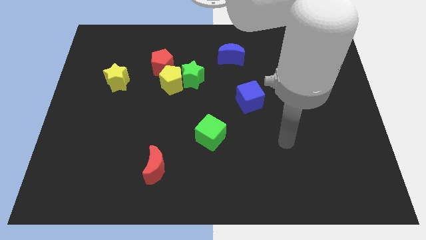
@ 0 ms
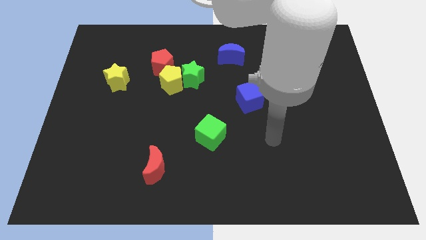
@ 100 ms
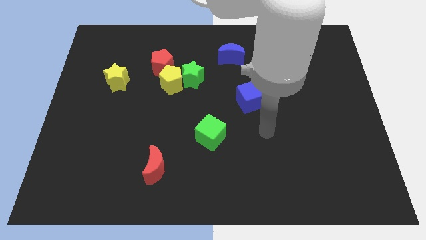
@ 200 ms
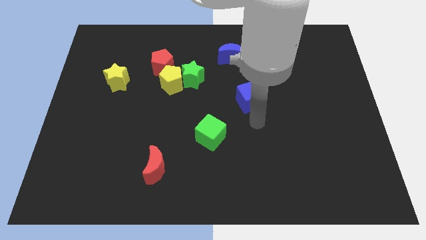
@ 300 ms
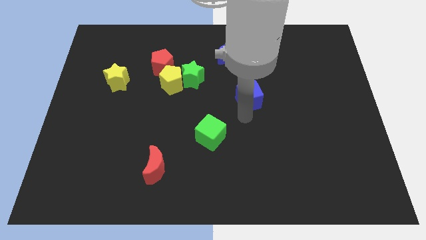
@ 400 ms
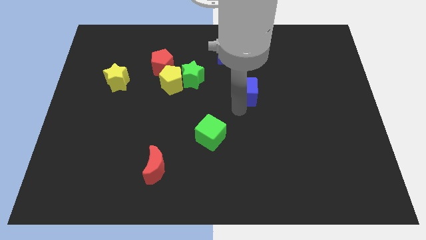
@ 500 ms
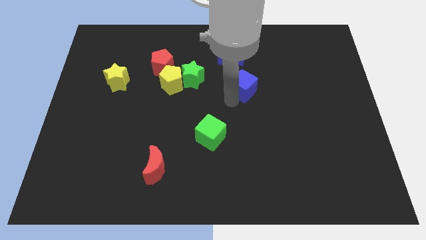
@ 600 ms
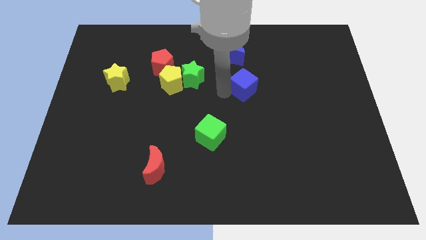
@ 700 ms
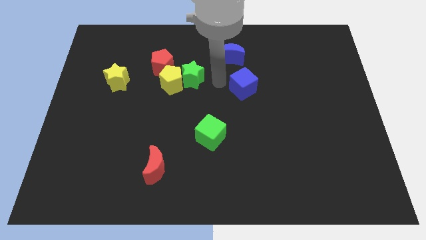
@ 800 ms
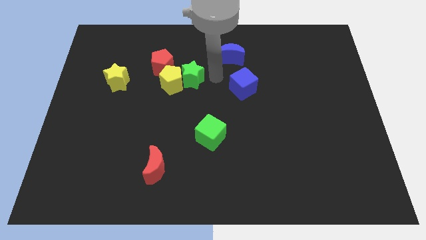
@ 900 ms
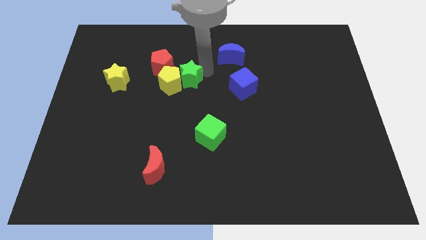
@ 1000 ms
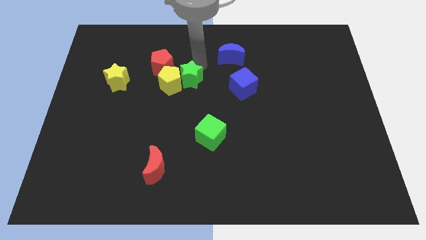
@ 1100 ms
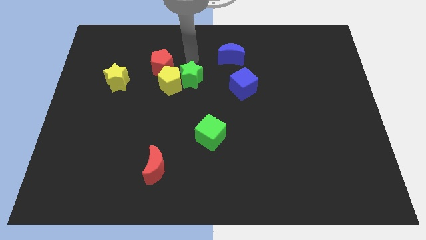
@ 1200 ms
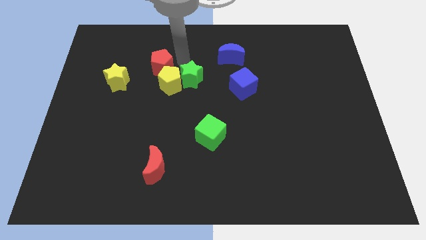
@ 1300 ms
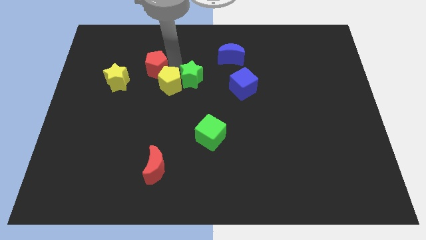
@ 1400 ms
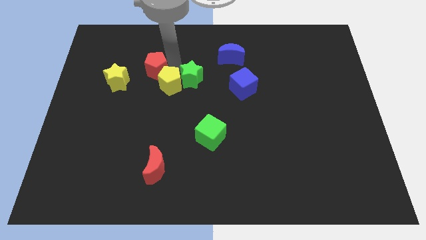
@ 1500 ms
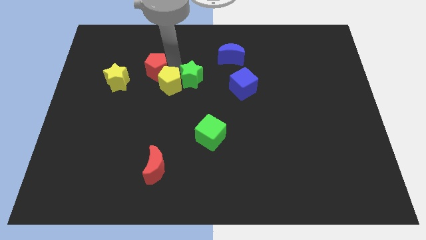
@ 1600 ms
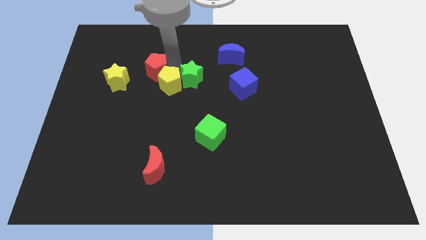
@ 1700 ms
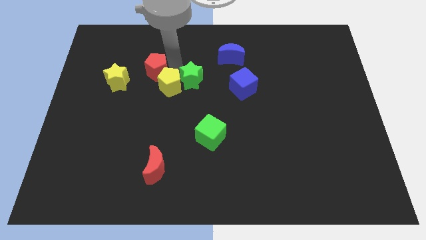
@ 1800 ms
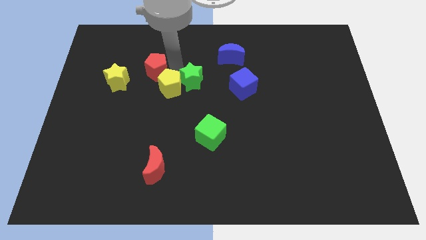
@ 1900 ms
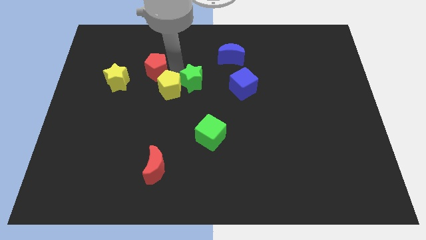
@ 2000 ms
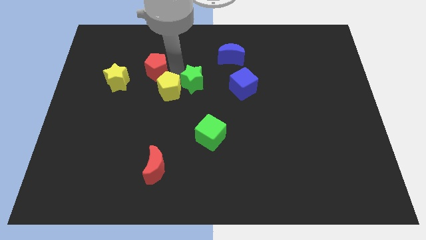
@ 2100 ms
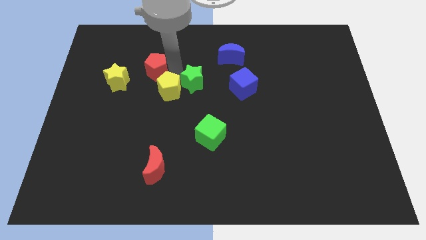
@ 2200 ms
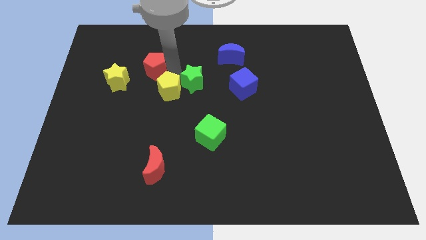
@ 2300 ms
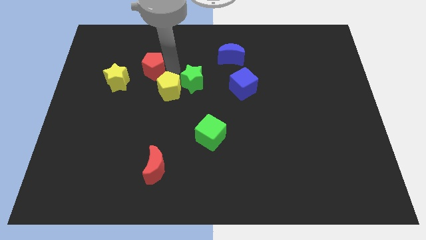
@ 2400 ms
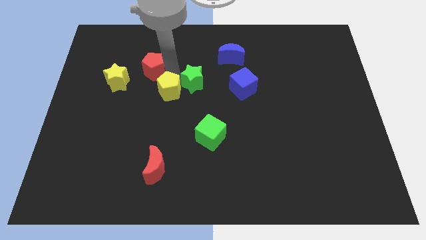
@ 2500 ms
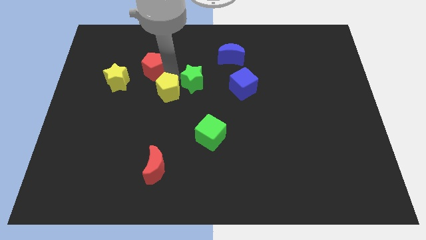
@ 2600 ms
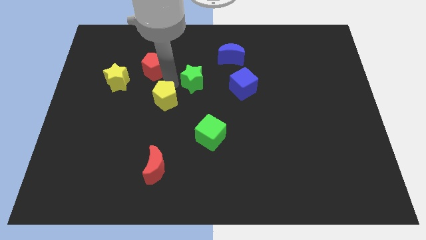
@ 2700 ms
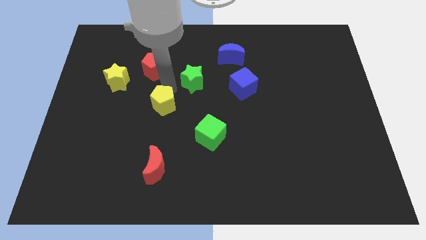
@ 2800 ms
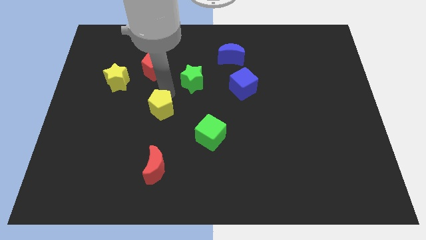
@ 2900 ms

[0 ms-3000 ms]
move the yellow pentagon downwards a little bit

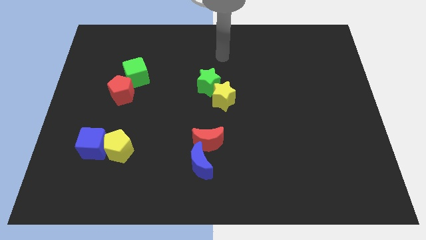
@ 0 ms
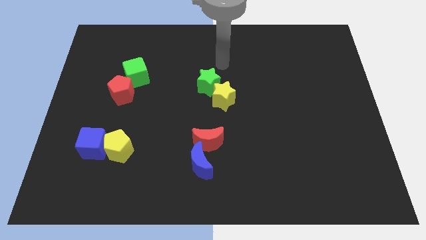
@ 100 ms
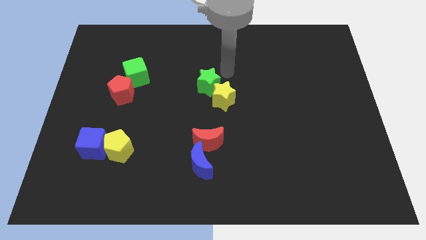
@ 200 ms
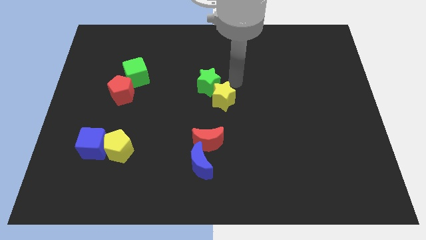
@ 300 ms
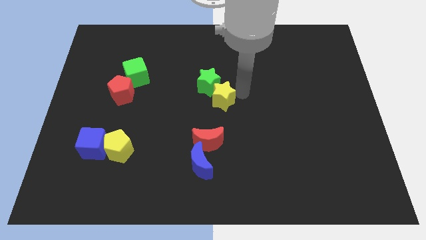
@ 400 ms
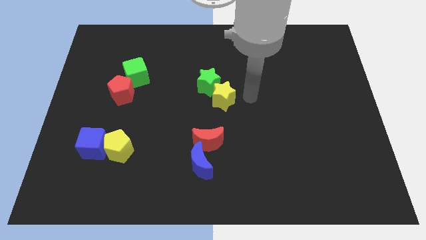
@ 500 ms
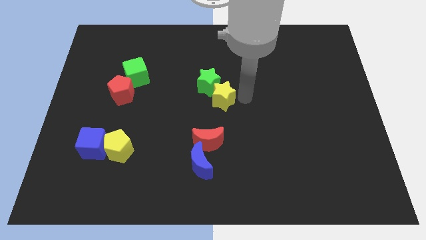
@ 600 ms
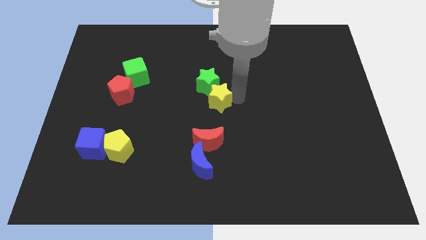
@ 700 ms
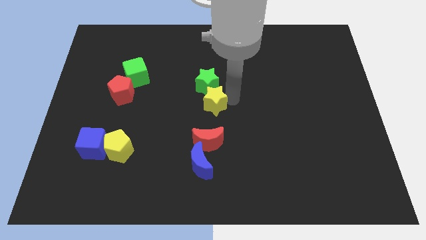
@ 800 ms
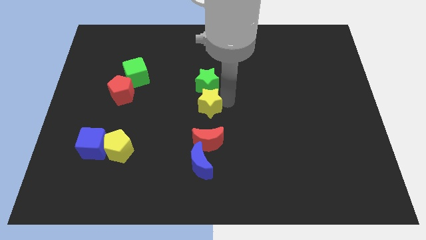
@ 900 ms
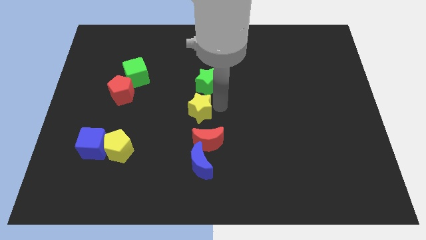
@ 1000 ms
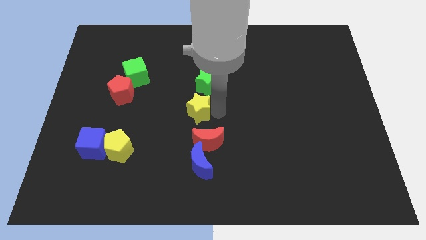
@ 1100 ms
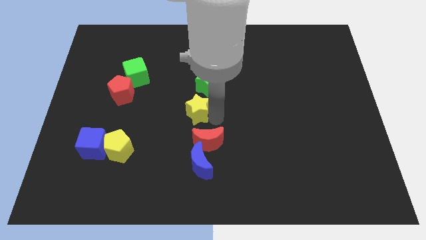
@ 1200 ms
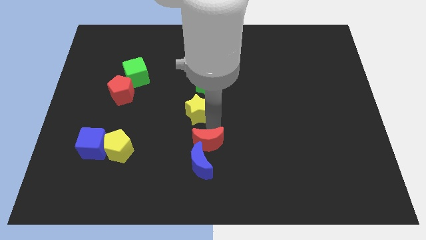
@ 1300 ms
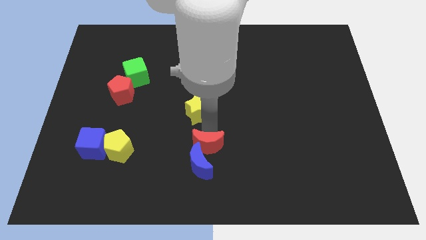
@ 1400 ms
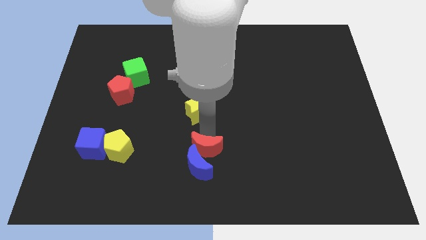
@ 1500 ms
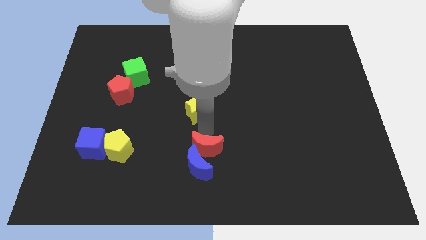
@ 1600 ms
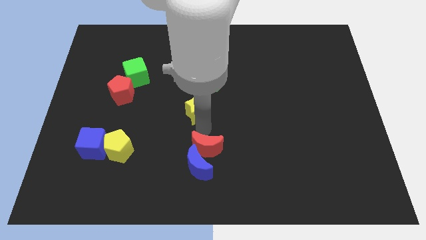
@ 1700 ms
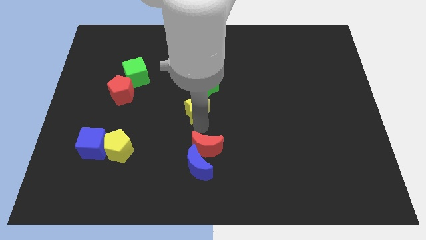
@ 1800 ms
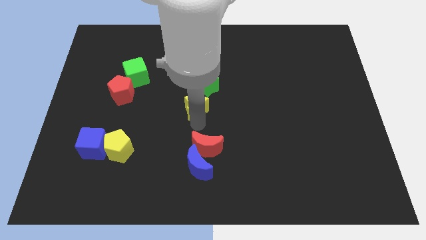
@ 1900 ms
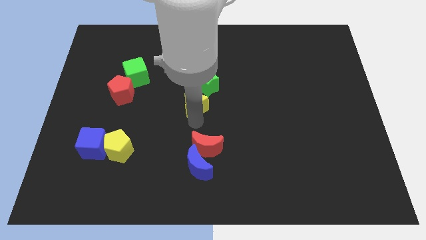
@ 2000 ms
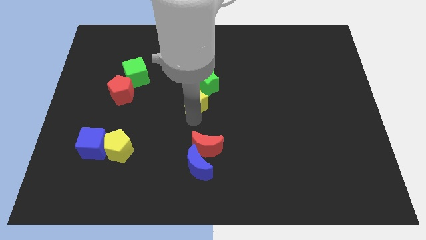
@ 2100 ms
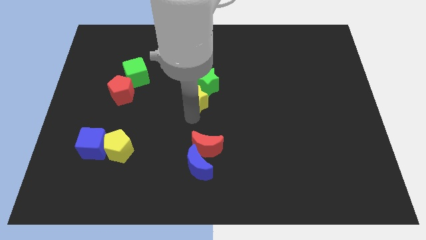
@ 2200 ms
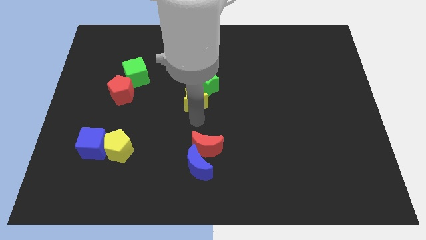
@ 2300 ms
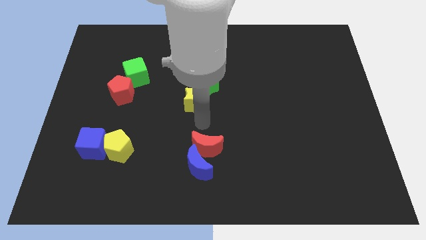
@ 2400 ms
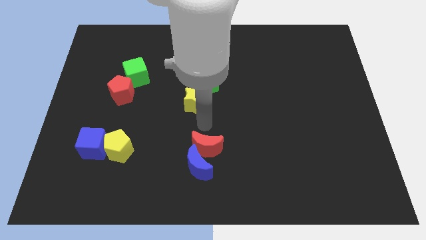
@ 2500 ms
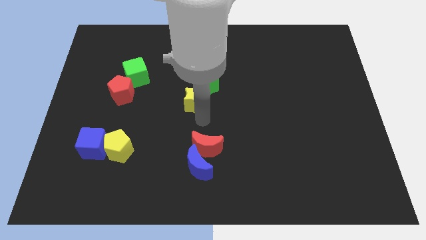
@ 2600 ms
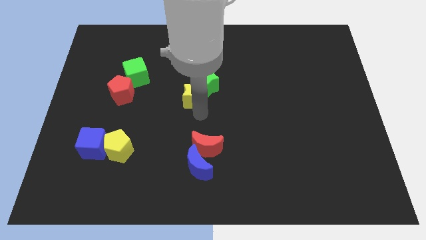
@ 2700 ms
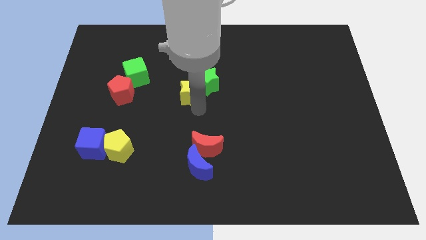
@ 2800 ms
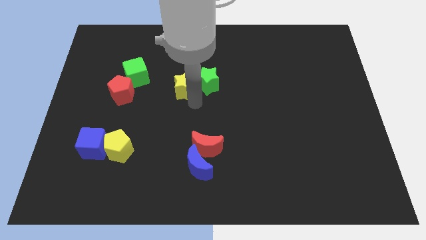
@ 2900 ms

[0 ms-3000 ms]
move the yellow star up and then left somewhat

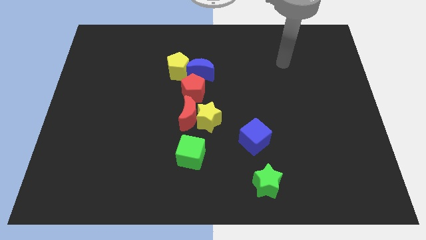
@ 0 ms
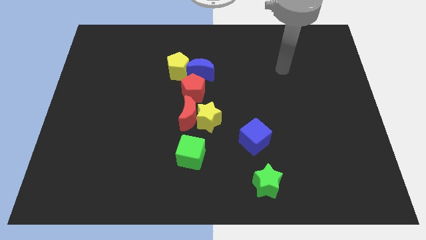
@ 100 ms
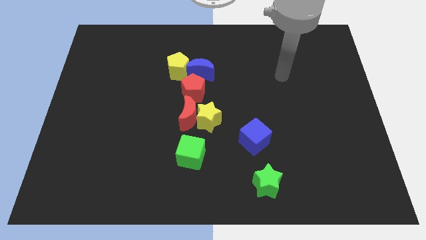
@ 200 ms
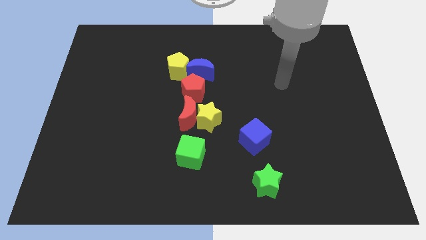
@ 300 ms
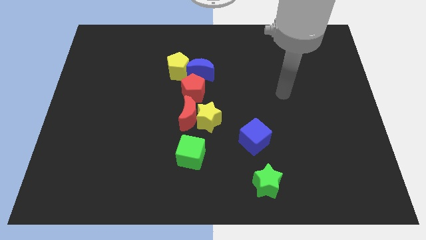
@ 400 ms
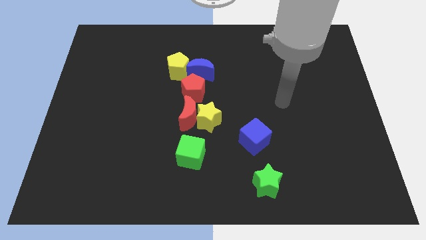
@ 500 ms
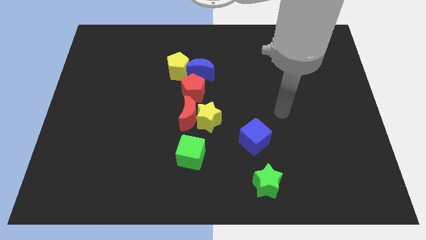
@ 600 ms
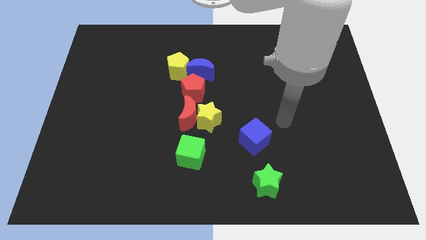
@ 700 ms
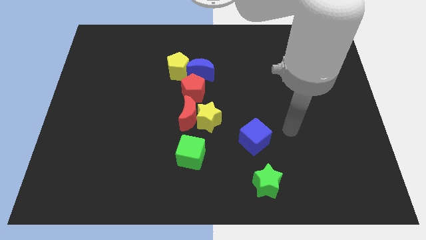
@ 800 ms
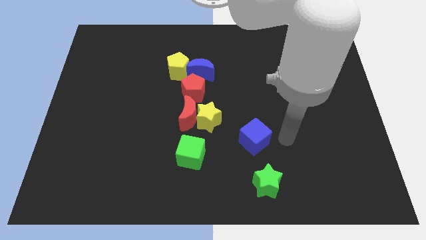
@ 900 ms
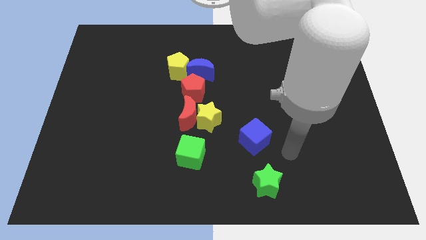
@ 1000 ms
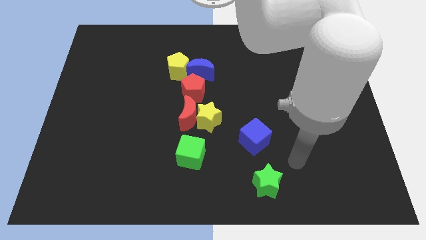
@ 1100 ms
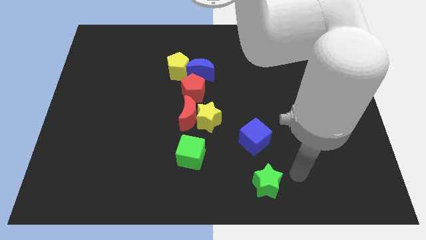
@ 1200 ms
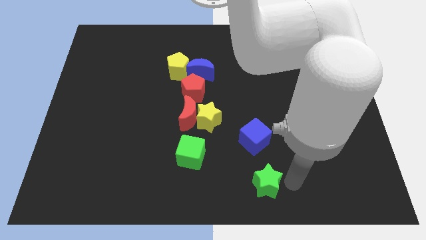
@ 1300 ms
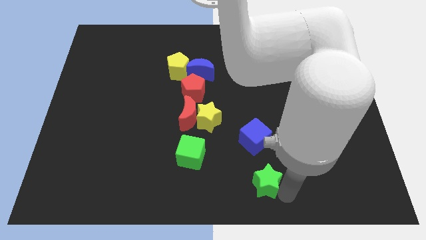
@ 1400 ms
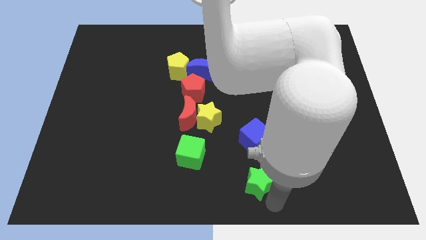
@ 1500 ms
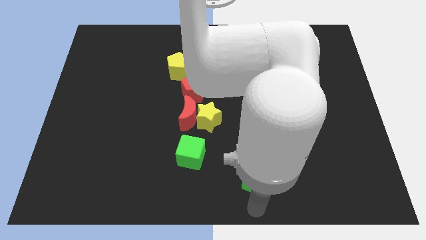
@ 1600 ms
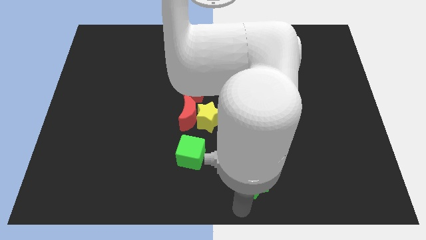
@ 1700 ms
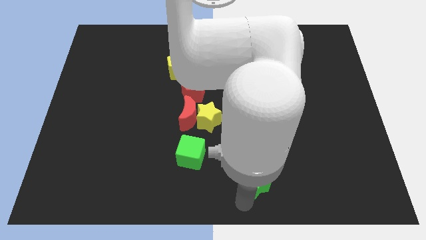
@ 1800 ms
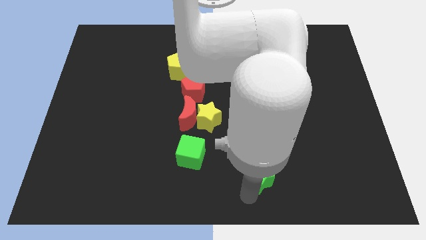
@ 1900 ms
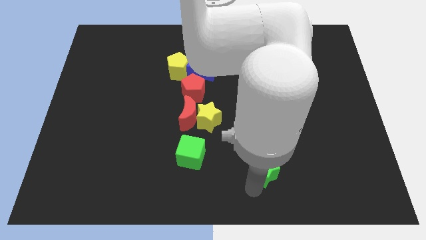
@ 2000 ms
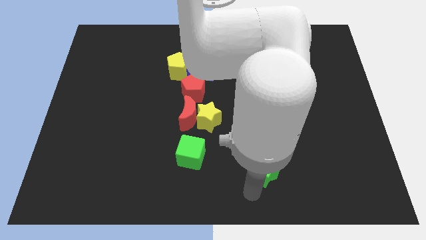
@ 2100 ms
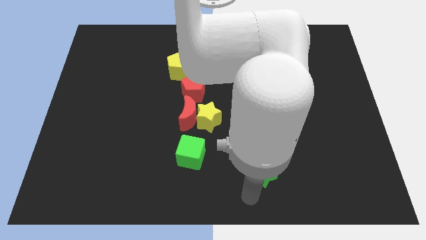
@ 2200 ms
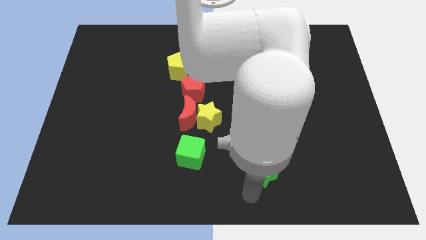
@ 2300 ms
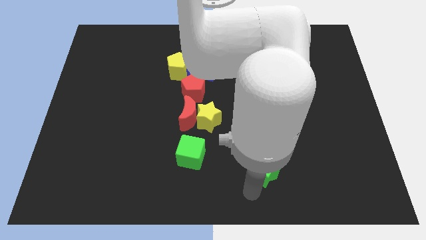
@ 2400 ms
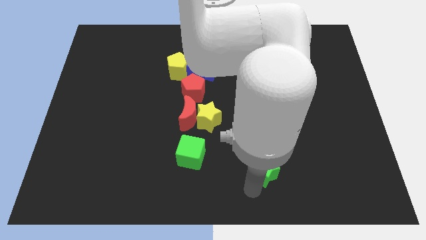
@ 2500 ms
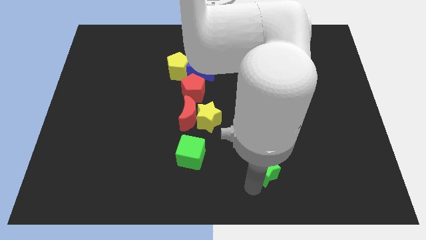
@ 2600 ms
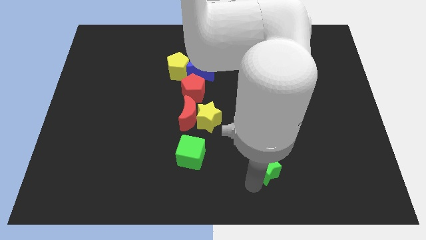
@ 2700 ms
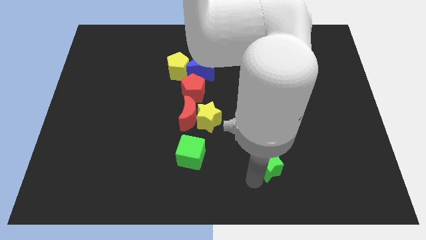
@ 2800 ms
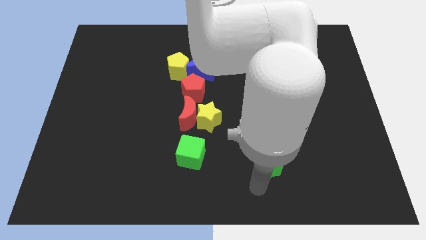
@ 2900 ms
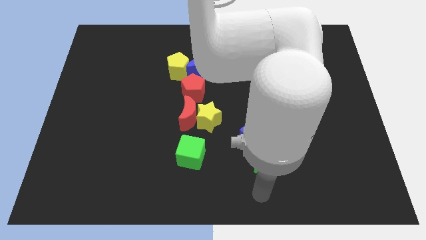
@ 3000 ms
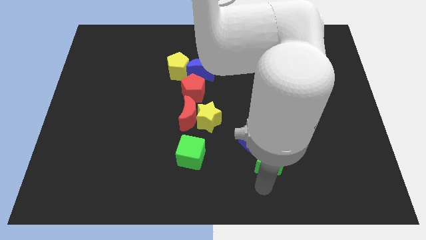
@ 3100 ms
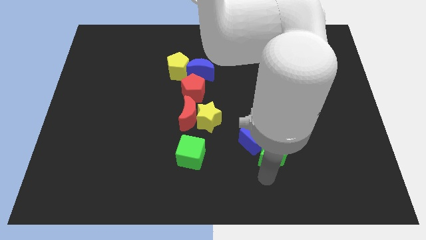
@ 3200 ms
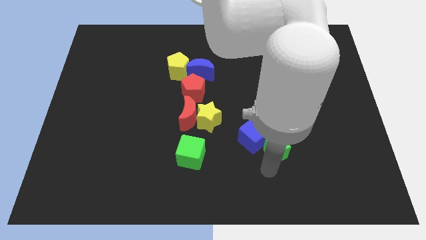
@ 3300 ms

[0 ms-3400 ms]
move the green star upwards a bit
